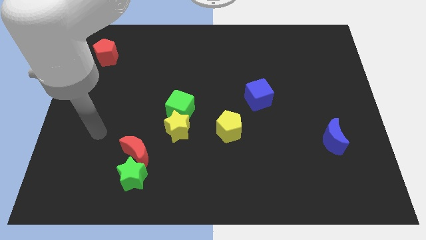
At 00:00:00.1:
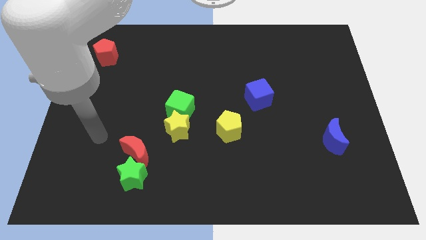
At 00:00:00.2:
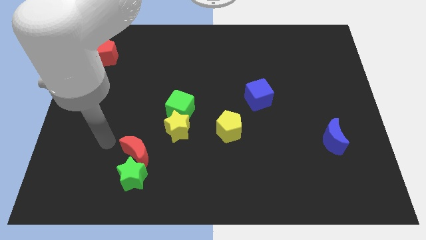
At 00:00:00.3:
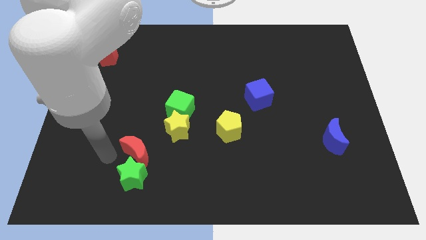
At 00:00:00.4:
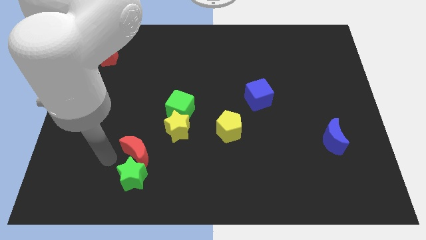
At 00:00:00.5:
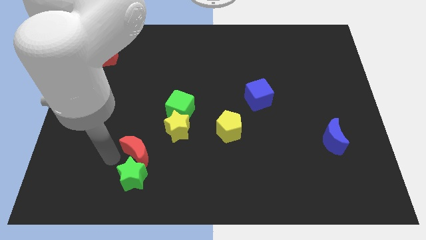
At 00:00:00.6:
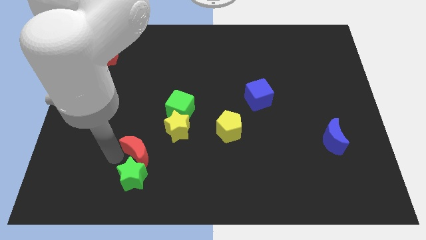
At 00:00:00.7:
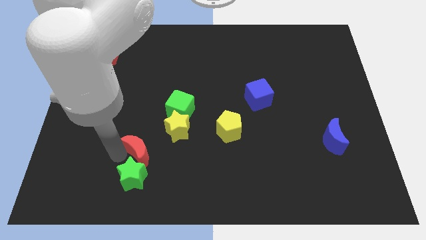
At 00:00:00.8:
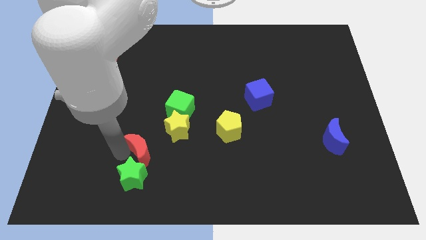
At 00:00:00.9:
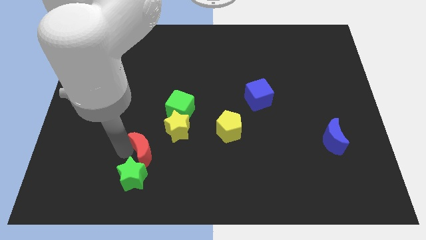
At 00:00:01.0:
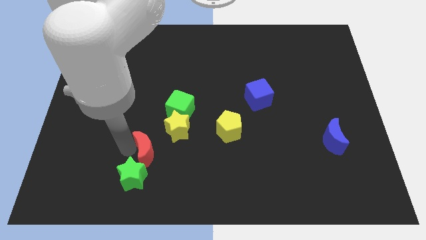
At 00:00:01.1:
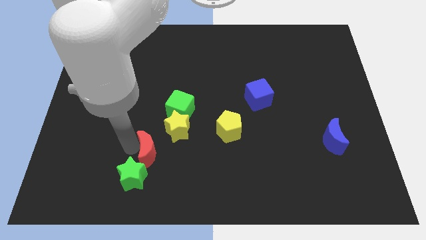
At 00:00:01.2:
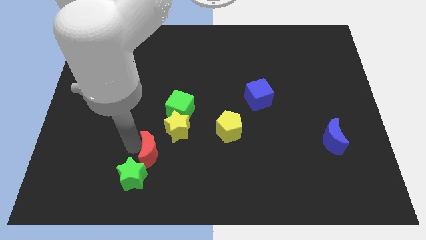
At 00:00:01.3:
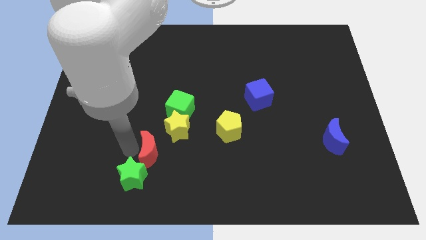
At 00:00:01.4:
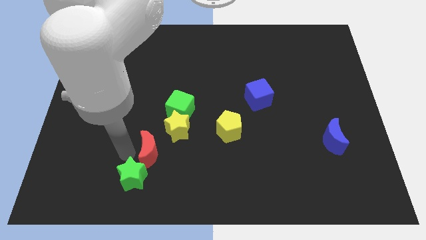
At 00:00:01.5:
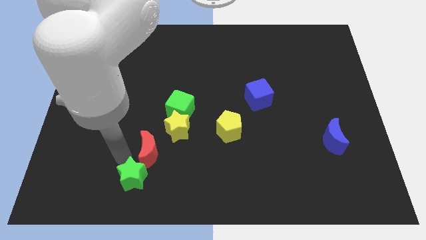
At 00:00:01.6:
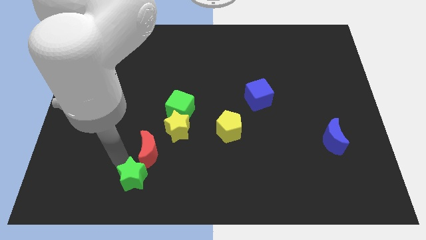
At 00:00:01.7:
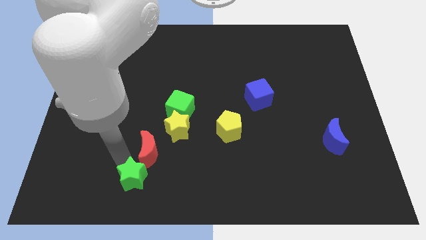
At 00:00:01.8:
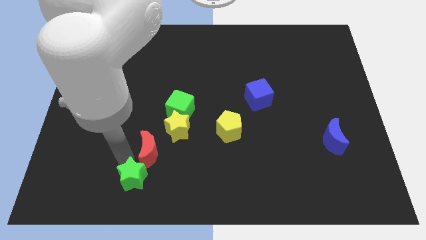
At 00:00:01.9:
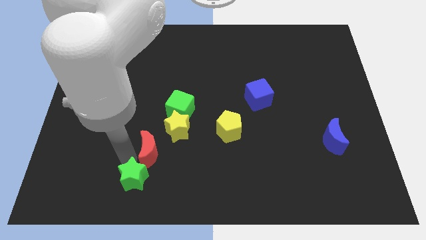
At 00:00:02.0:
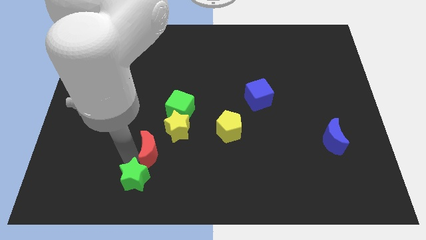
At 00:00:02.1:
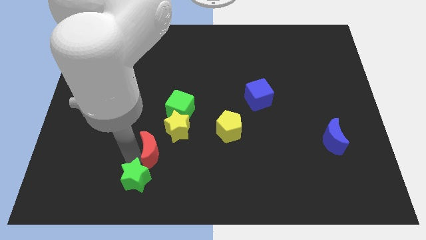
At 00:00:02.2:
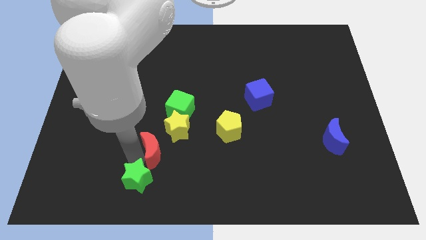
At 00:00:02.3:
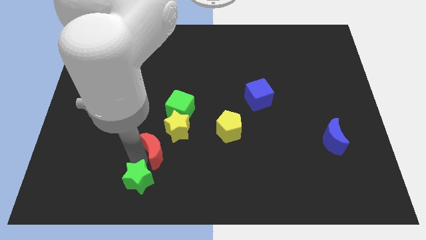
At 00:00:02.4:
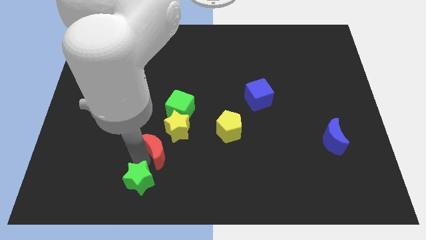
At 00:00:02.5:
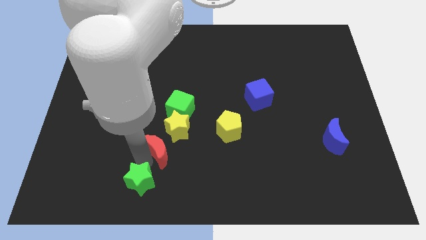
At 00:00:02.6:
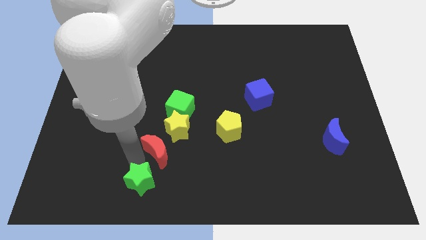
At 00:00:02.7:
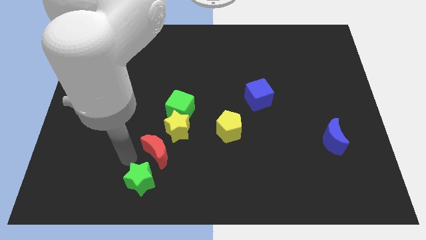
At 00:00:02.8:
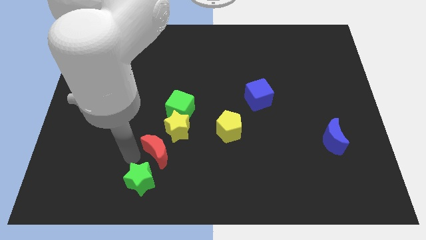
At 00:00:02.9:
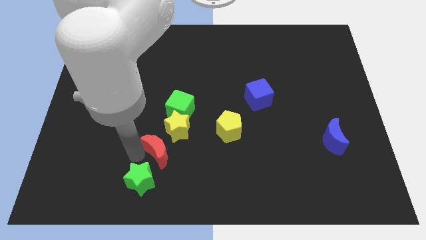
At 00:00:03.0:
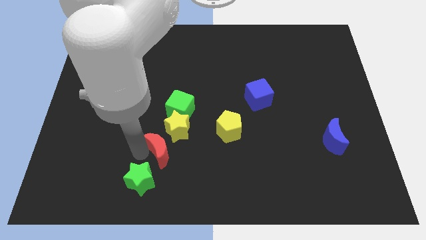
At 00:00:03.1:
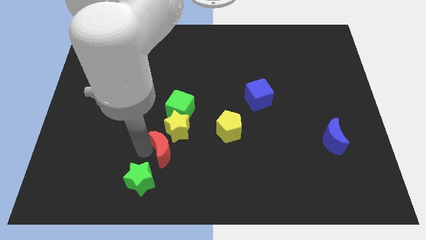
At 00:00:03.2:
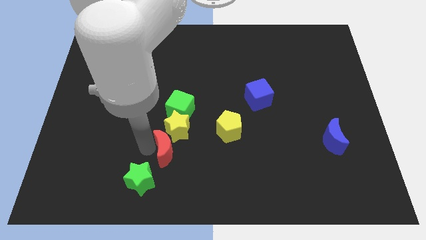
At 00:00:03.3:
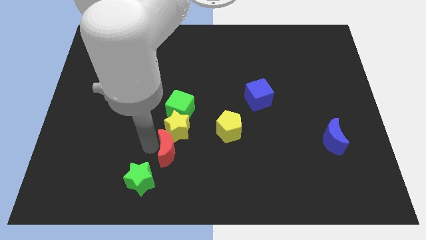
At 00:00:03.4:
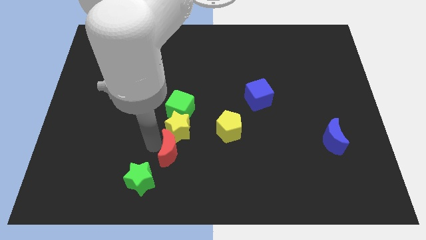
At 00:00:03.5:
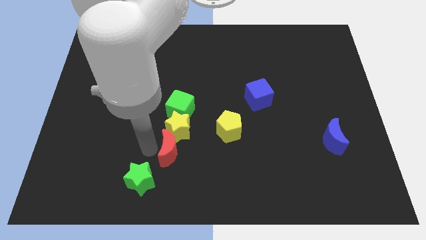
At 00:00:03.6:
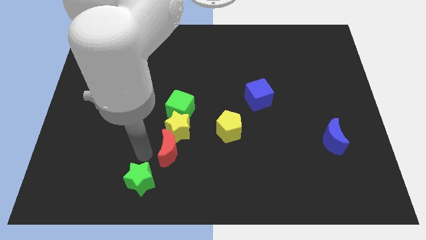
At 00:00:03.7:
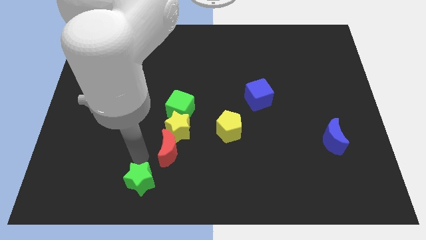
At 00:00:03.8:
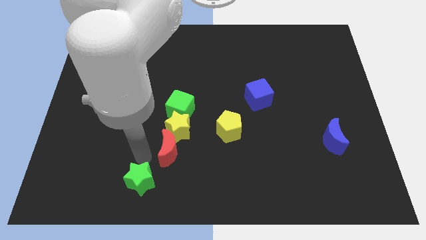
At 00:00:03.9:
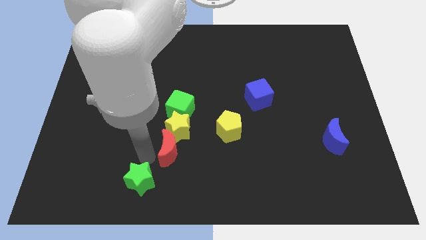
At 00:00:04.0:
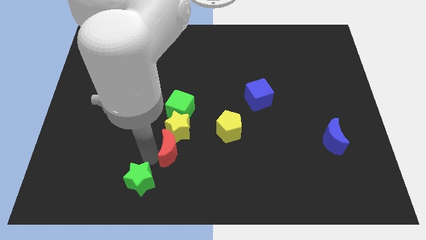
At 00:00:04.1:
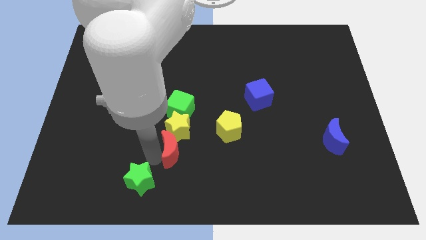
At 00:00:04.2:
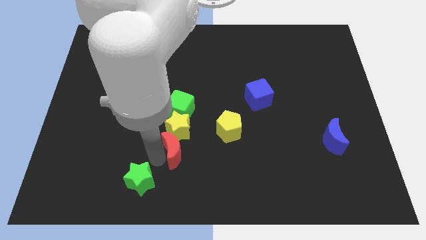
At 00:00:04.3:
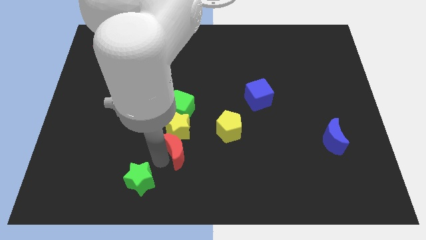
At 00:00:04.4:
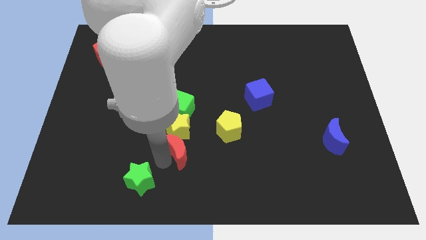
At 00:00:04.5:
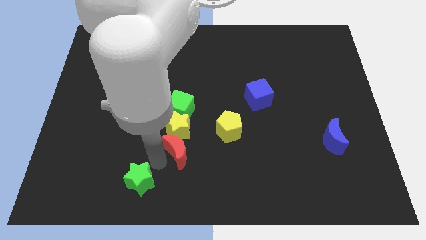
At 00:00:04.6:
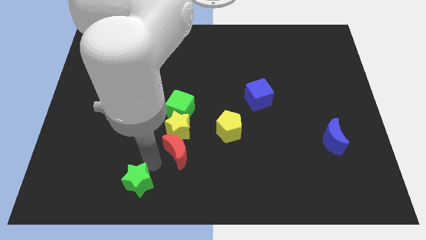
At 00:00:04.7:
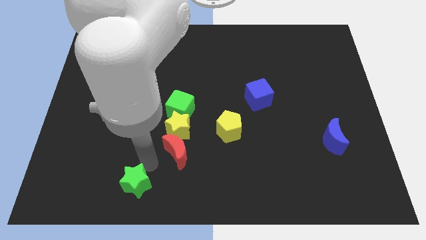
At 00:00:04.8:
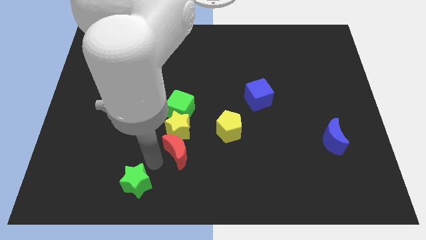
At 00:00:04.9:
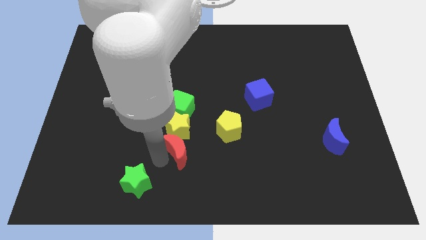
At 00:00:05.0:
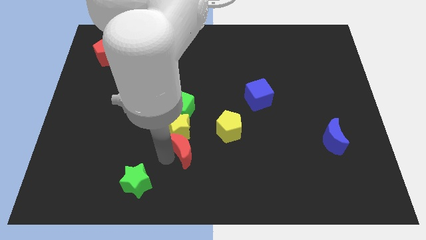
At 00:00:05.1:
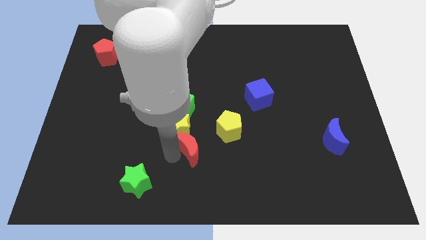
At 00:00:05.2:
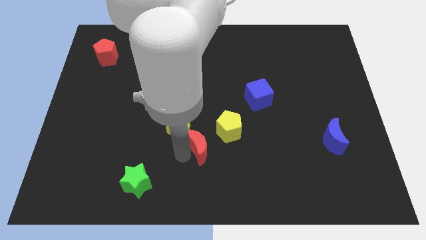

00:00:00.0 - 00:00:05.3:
move the red moon slightly diagonally up and right

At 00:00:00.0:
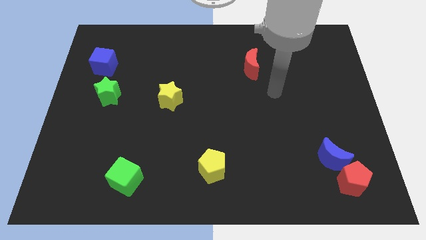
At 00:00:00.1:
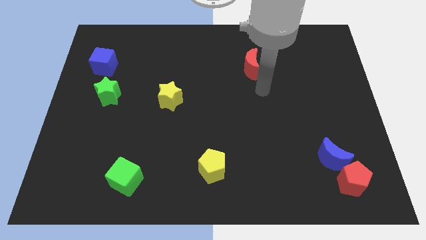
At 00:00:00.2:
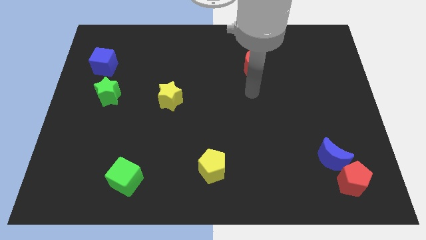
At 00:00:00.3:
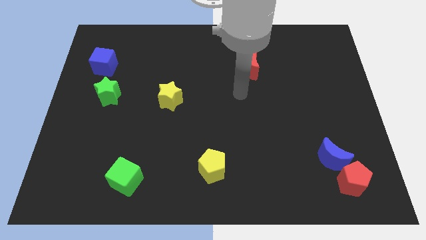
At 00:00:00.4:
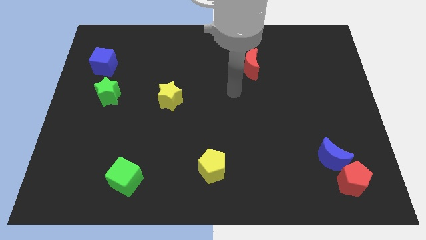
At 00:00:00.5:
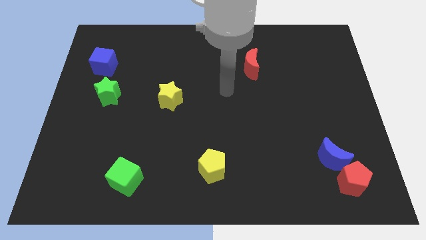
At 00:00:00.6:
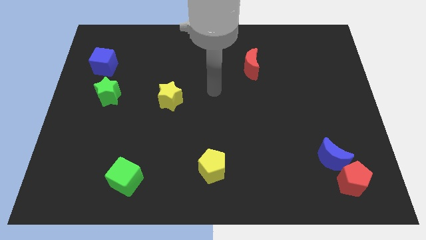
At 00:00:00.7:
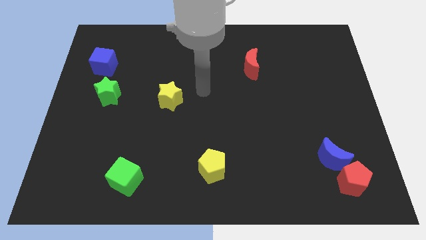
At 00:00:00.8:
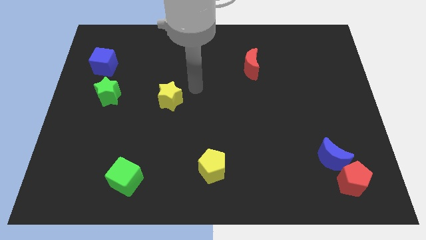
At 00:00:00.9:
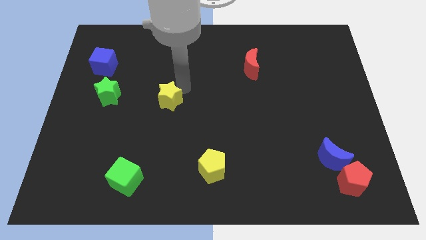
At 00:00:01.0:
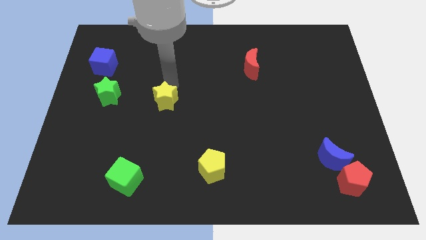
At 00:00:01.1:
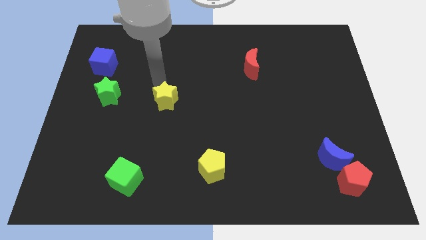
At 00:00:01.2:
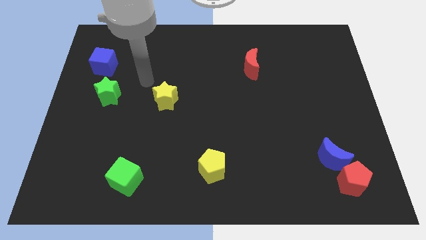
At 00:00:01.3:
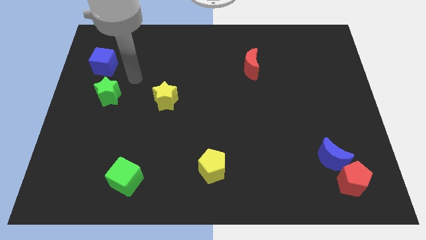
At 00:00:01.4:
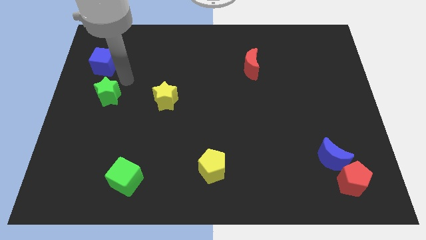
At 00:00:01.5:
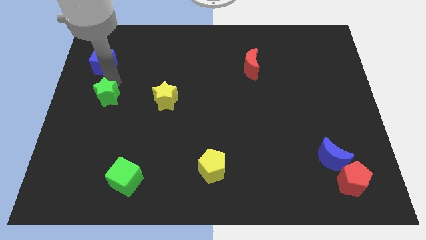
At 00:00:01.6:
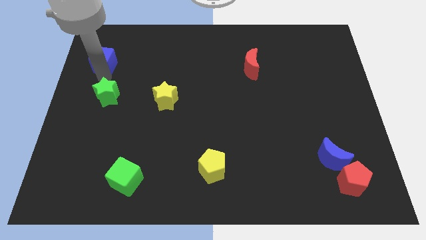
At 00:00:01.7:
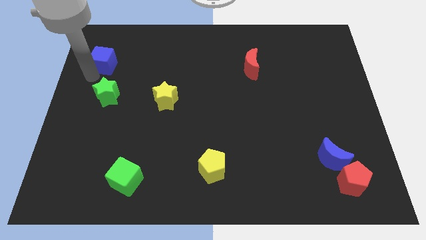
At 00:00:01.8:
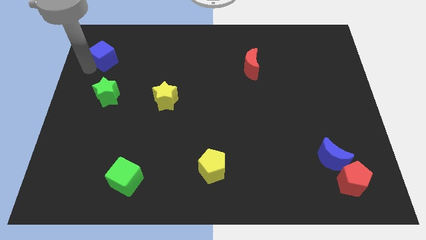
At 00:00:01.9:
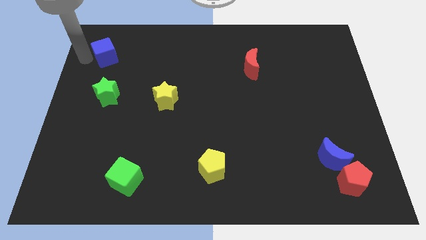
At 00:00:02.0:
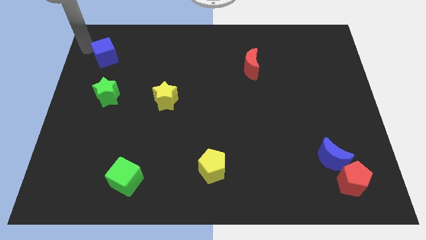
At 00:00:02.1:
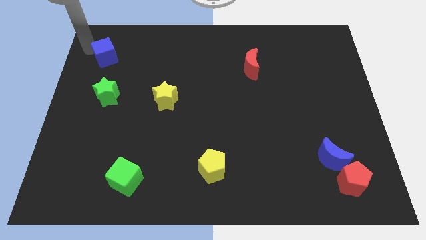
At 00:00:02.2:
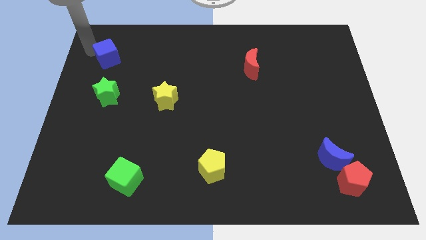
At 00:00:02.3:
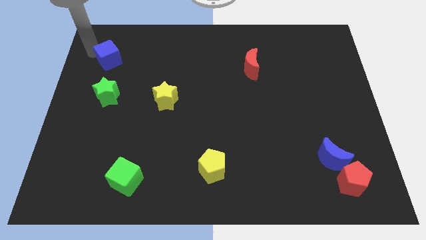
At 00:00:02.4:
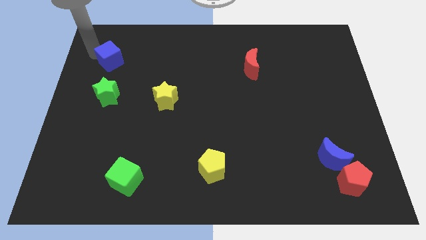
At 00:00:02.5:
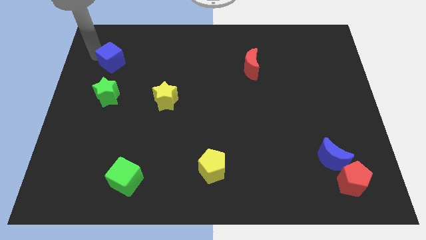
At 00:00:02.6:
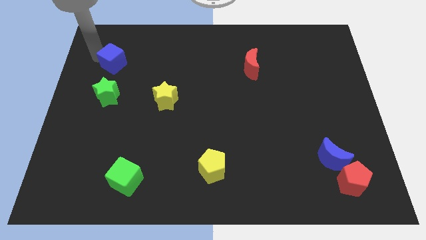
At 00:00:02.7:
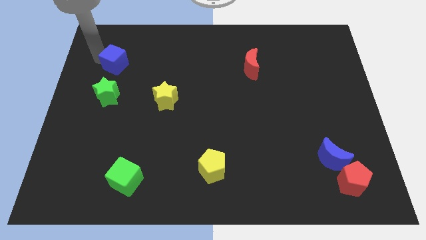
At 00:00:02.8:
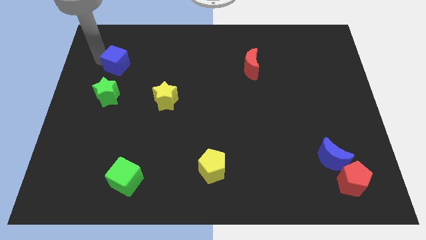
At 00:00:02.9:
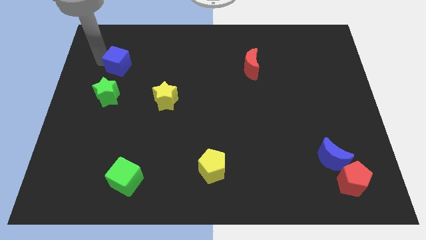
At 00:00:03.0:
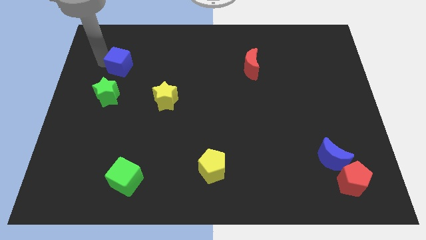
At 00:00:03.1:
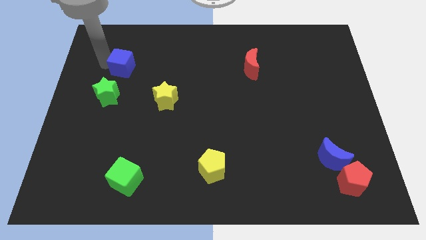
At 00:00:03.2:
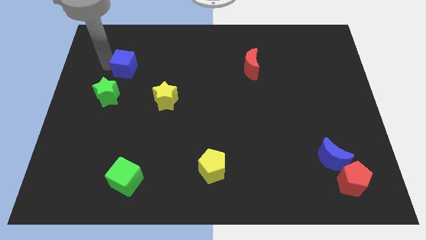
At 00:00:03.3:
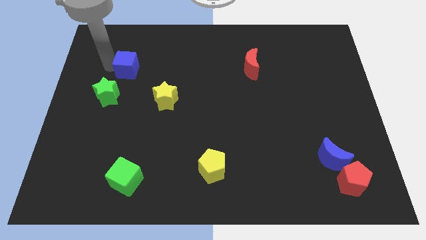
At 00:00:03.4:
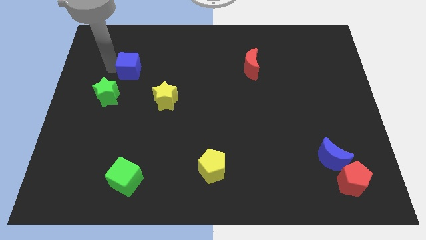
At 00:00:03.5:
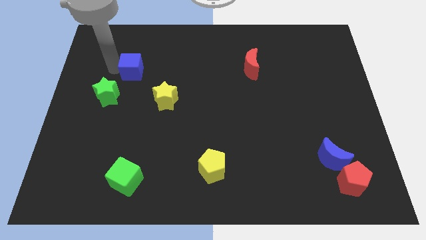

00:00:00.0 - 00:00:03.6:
move the blue cube right somewhat
